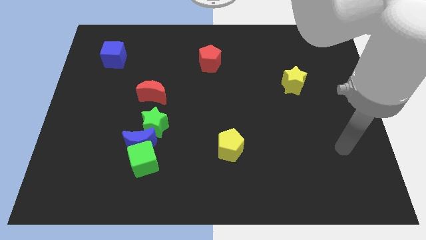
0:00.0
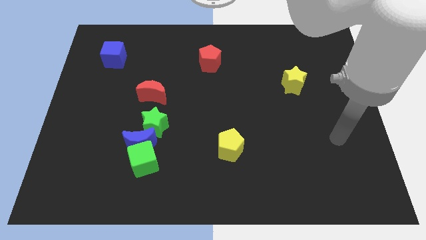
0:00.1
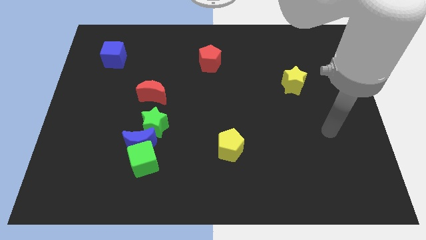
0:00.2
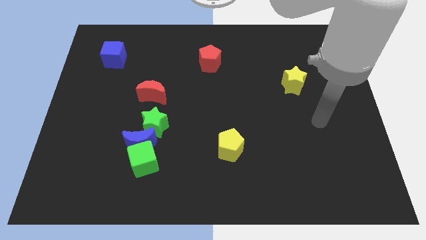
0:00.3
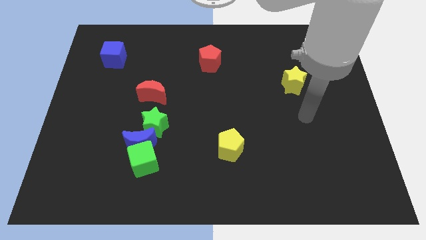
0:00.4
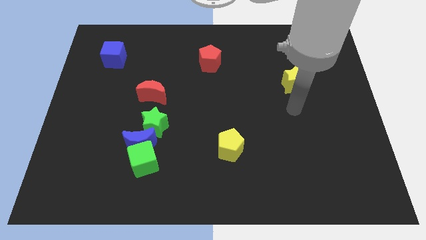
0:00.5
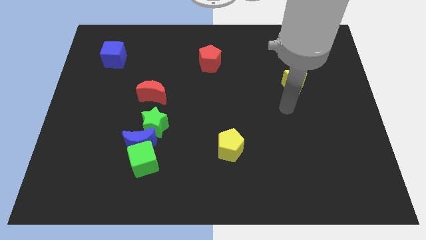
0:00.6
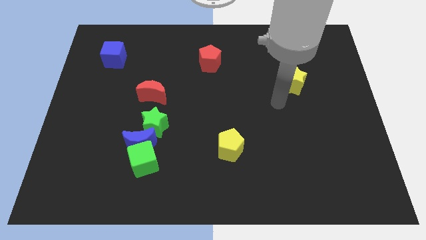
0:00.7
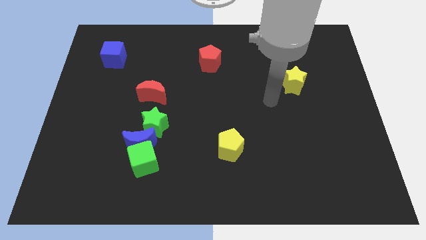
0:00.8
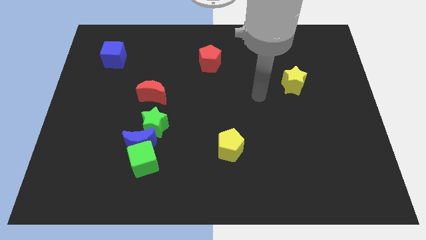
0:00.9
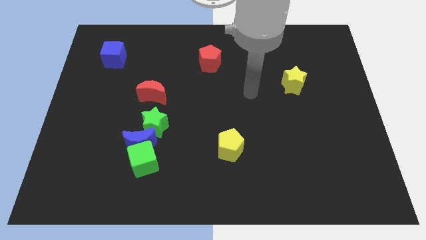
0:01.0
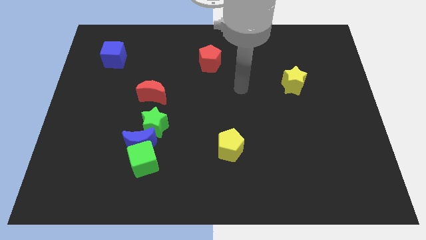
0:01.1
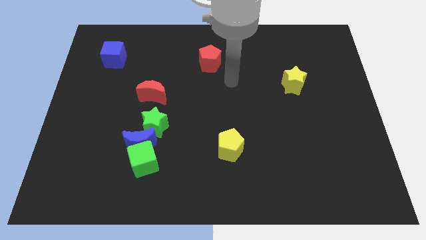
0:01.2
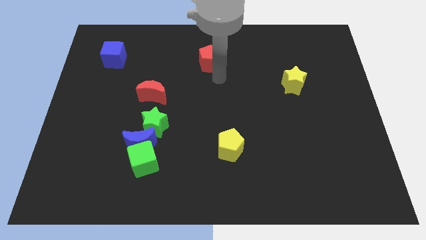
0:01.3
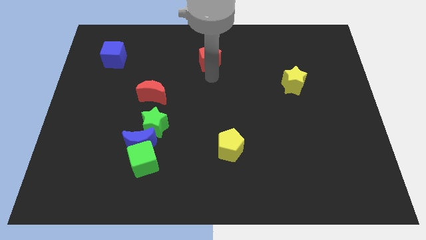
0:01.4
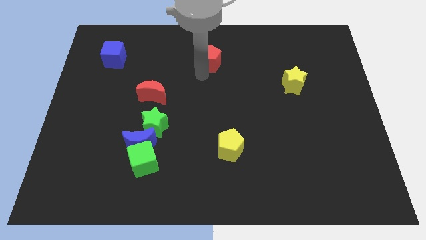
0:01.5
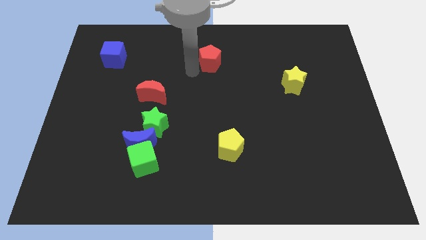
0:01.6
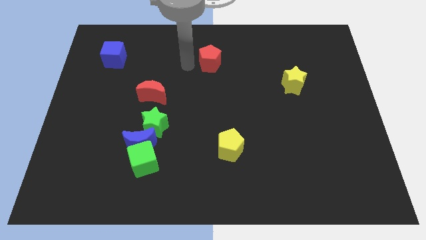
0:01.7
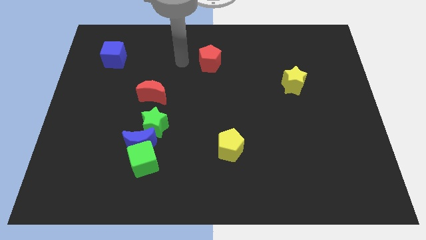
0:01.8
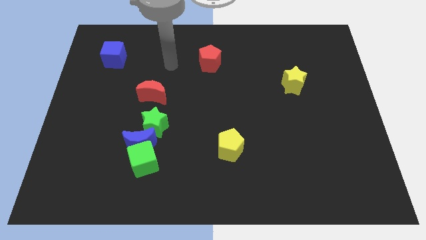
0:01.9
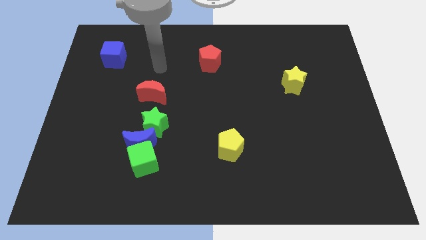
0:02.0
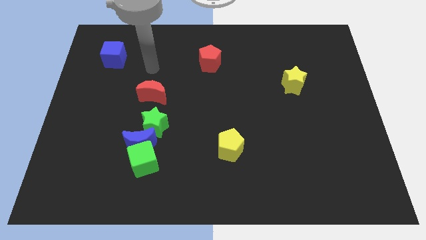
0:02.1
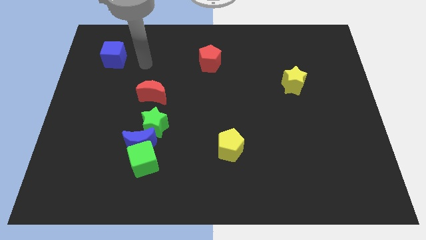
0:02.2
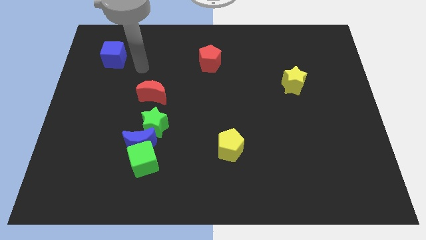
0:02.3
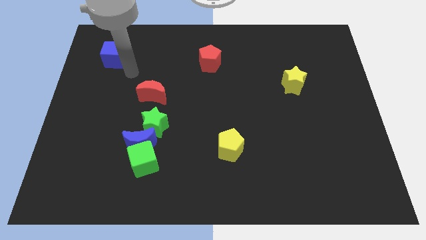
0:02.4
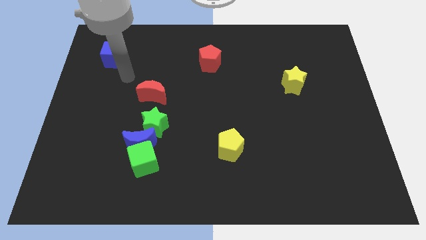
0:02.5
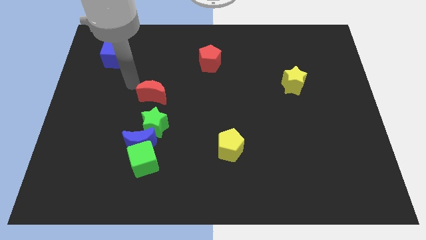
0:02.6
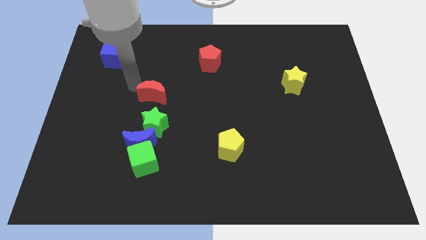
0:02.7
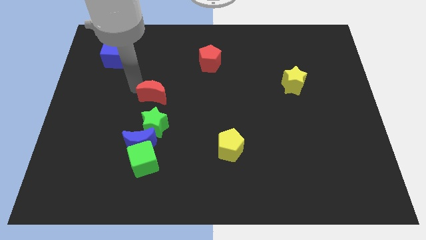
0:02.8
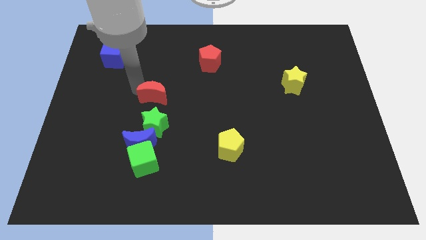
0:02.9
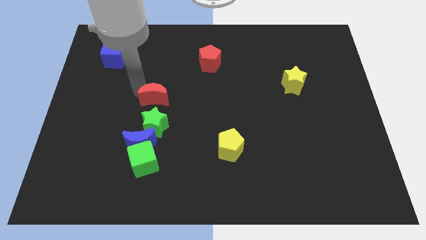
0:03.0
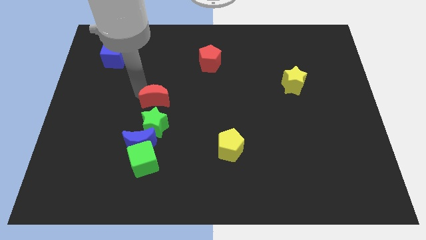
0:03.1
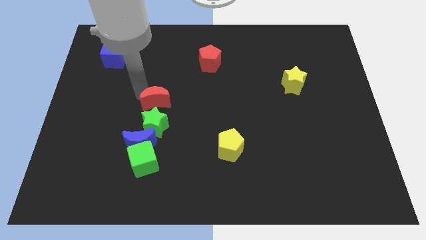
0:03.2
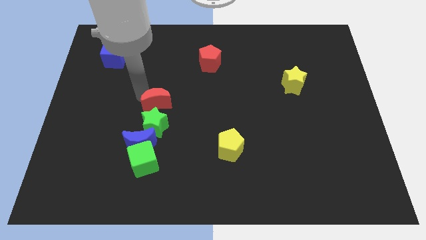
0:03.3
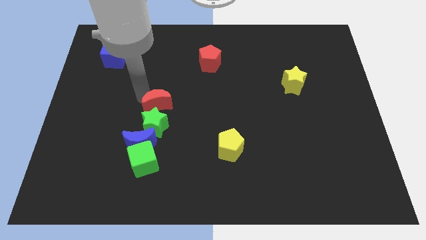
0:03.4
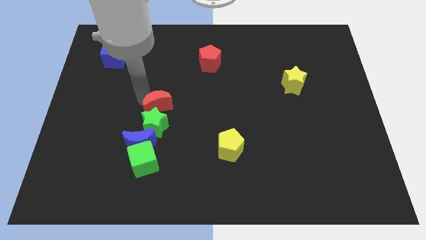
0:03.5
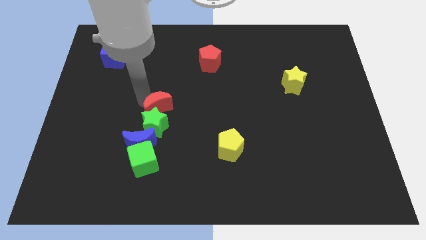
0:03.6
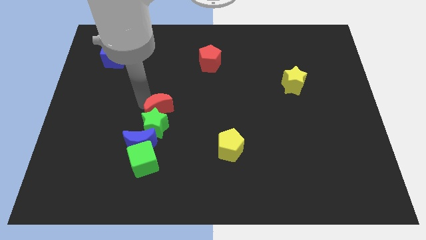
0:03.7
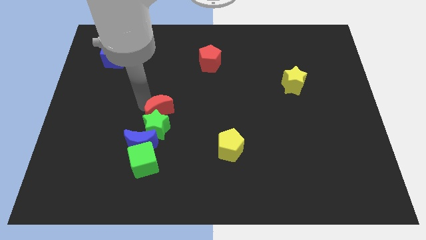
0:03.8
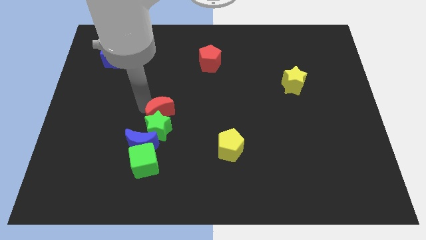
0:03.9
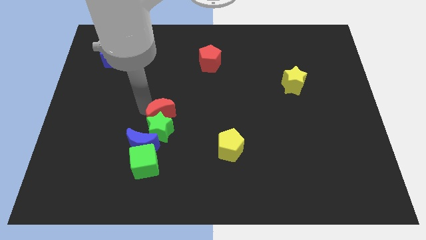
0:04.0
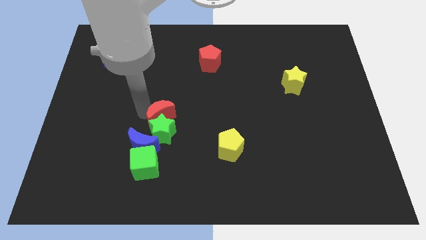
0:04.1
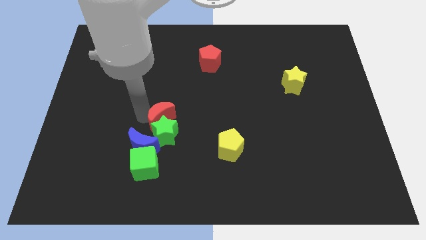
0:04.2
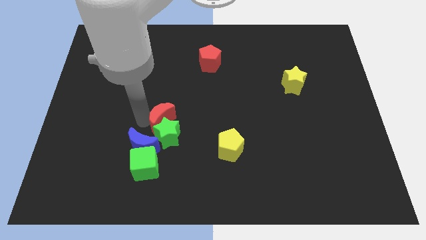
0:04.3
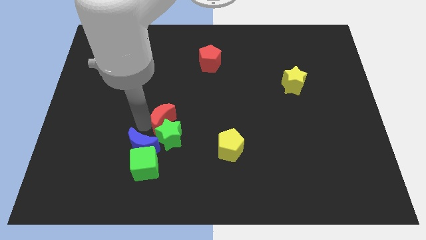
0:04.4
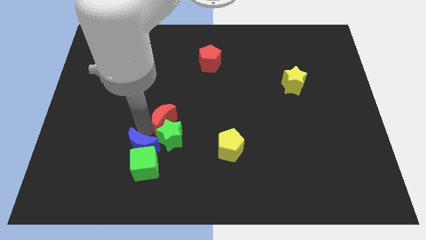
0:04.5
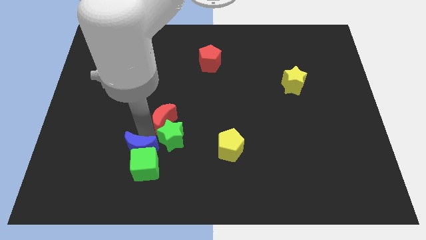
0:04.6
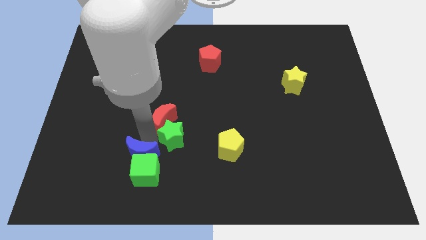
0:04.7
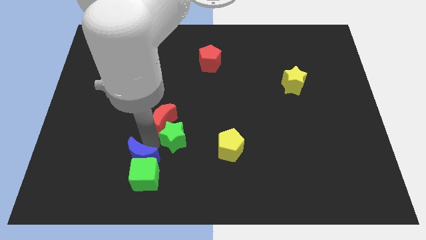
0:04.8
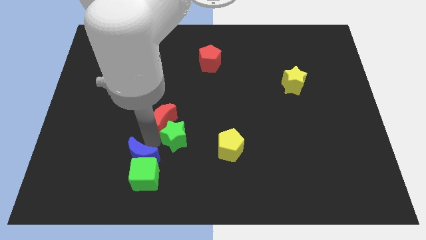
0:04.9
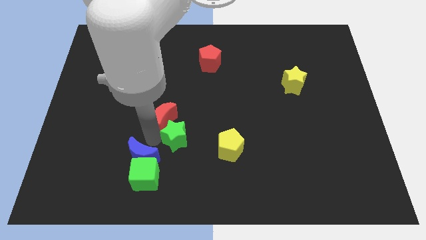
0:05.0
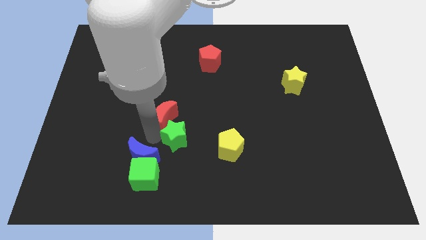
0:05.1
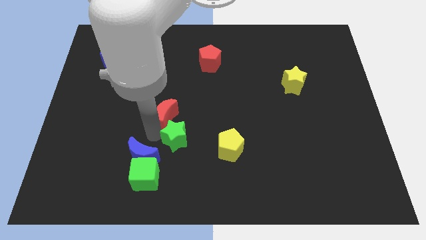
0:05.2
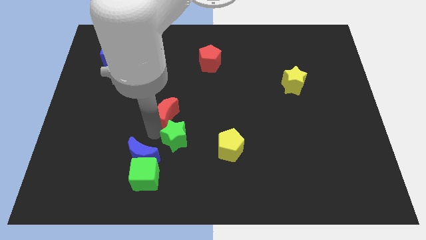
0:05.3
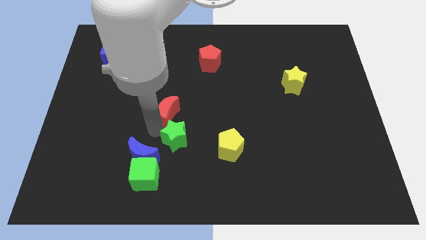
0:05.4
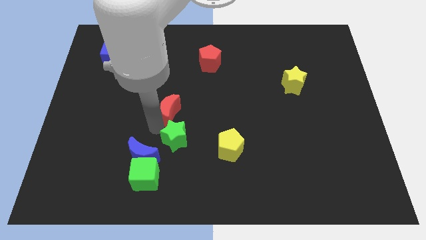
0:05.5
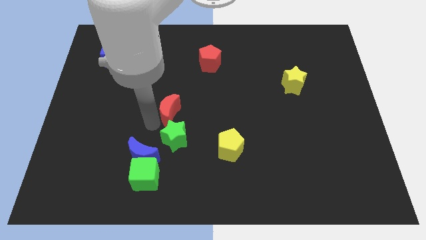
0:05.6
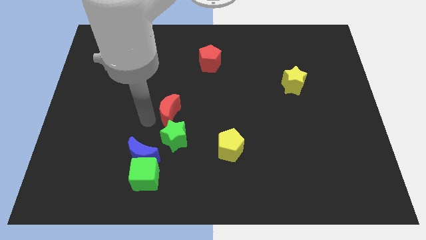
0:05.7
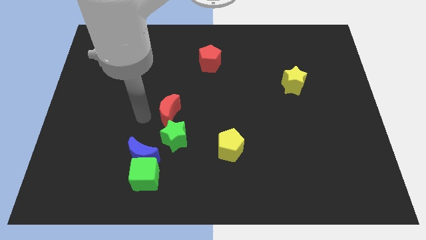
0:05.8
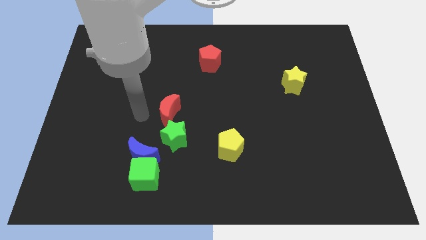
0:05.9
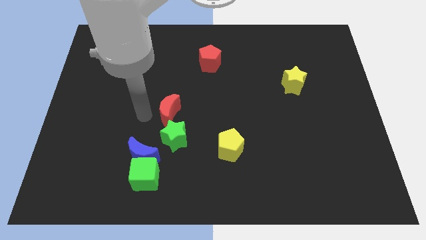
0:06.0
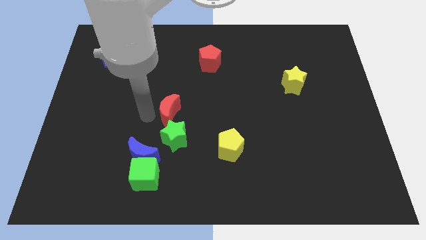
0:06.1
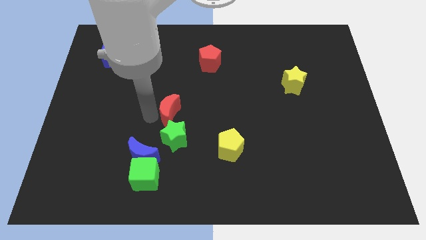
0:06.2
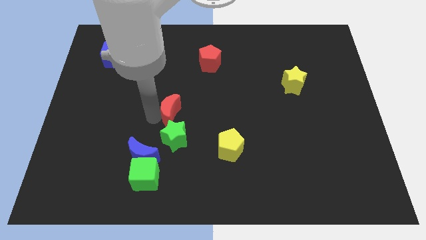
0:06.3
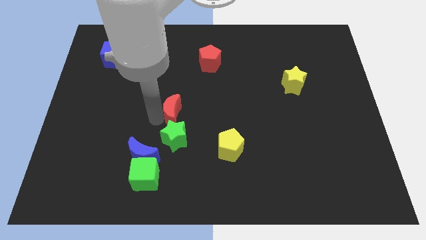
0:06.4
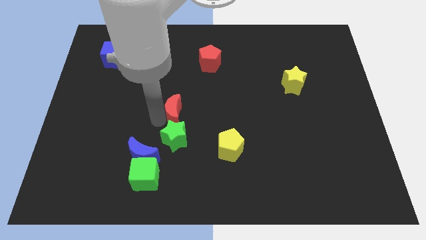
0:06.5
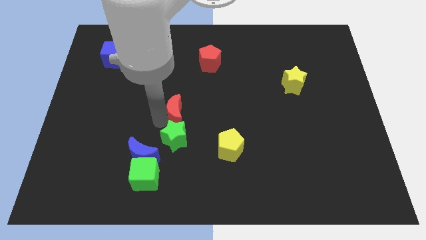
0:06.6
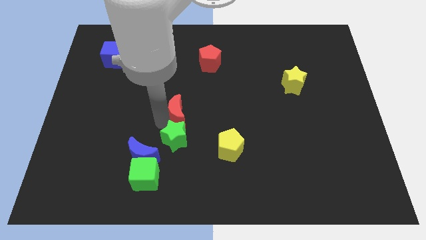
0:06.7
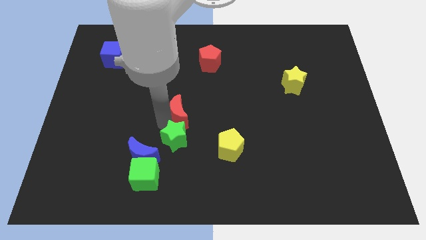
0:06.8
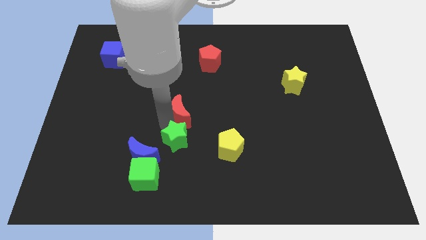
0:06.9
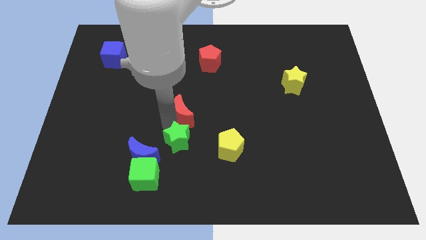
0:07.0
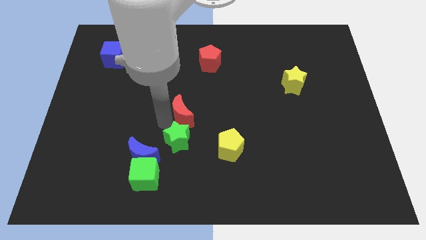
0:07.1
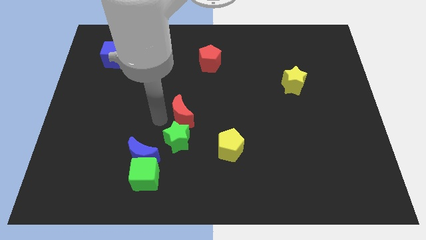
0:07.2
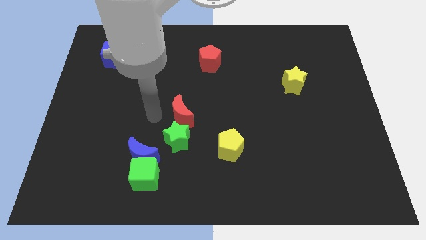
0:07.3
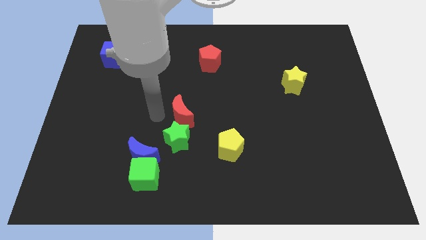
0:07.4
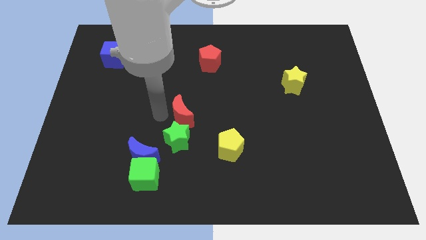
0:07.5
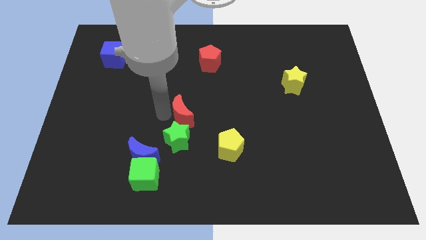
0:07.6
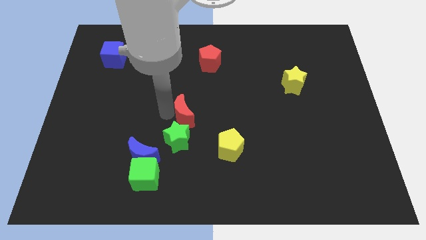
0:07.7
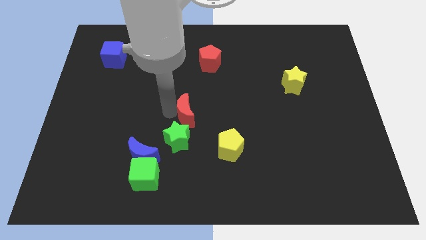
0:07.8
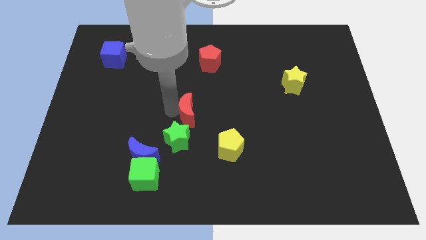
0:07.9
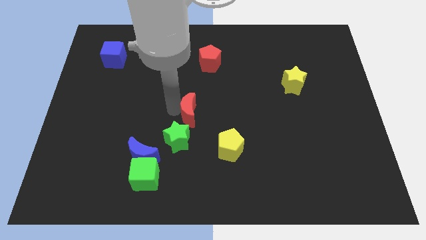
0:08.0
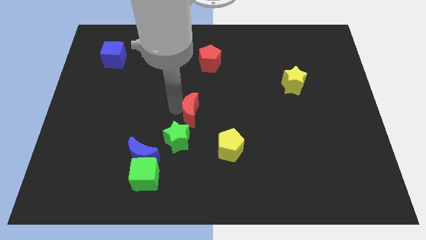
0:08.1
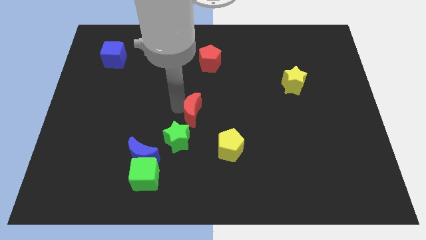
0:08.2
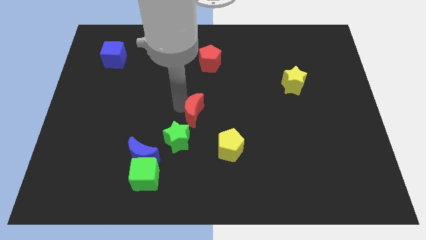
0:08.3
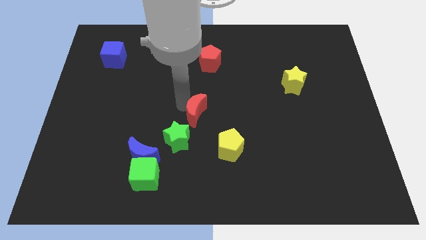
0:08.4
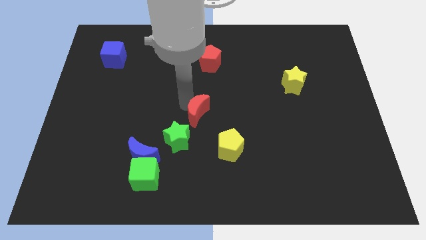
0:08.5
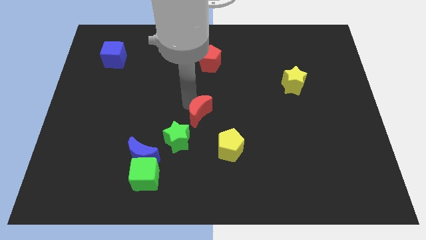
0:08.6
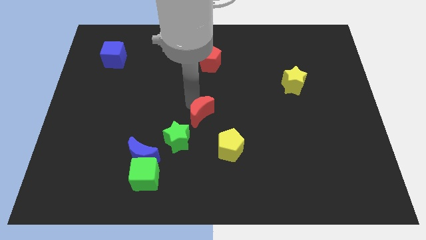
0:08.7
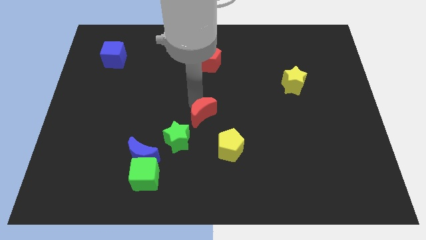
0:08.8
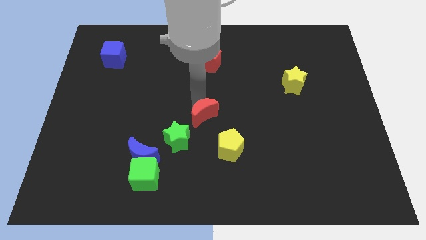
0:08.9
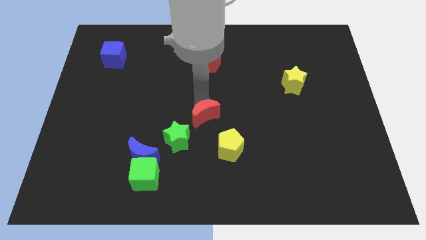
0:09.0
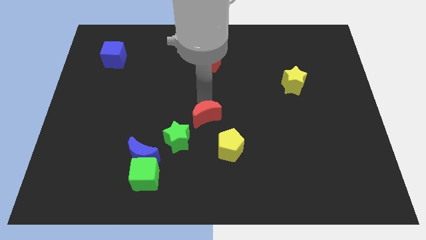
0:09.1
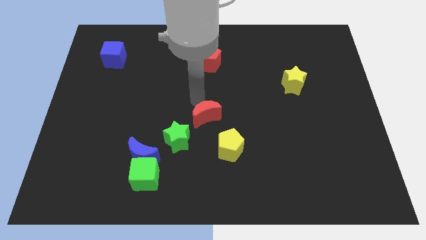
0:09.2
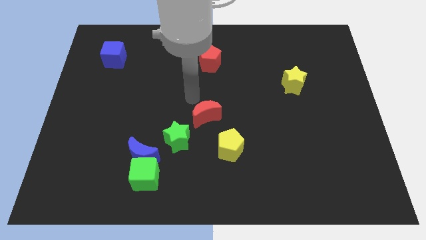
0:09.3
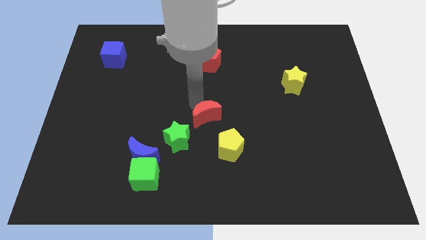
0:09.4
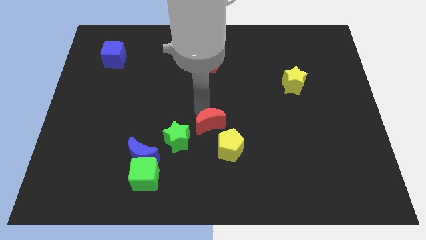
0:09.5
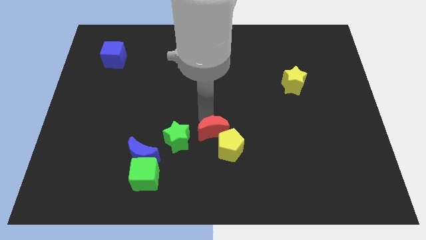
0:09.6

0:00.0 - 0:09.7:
move the red moon next to the yellow pentagon
